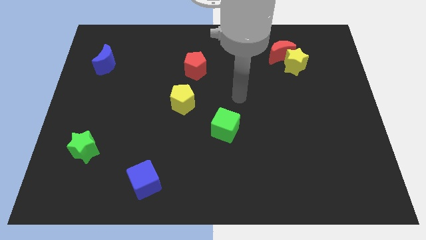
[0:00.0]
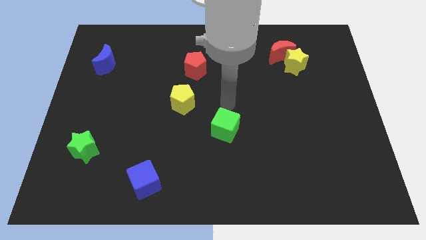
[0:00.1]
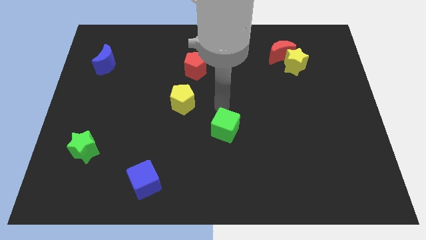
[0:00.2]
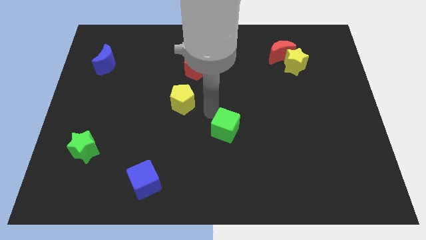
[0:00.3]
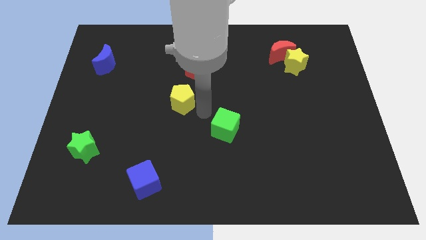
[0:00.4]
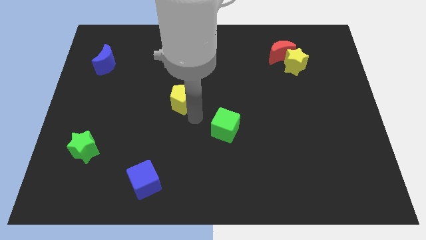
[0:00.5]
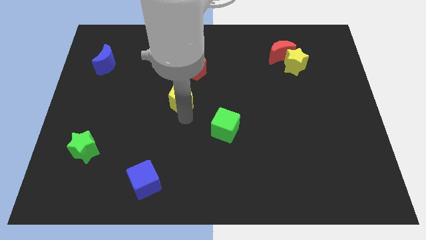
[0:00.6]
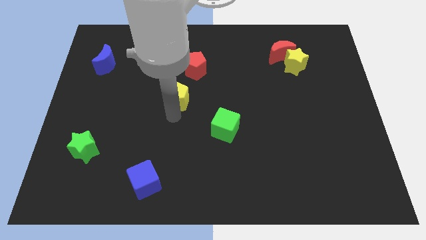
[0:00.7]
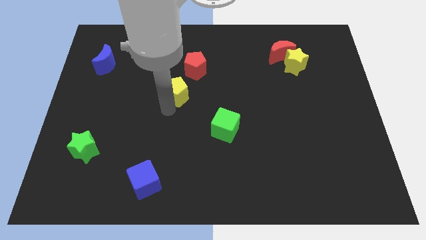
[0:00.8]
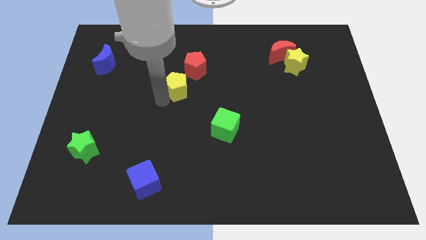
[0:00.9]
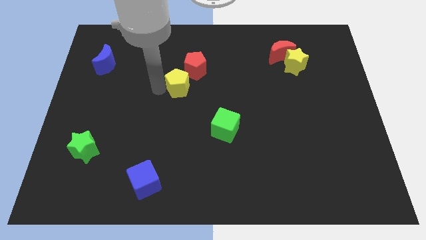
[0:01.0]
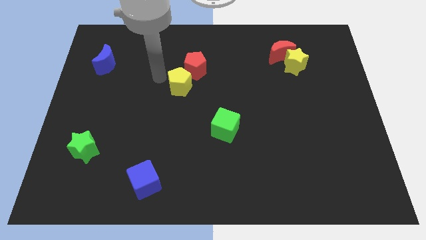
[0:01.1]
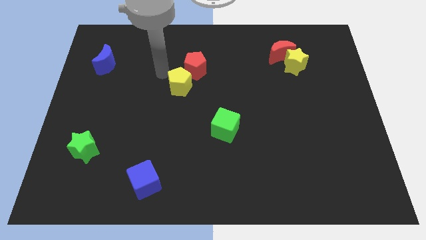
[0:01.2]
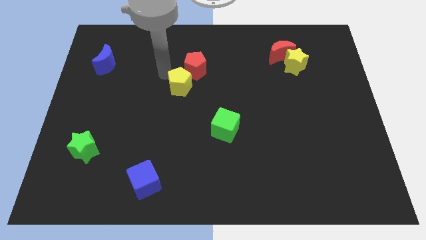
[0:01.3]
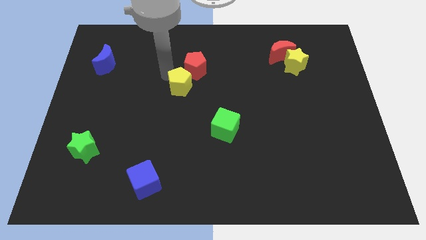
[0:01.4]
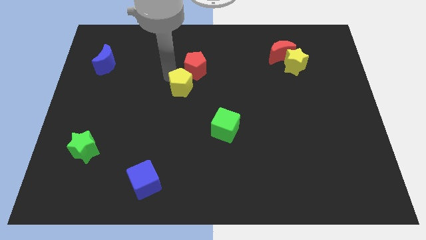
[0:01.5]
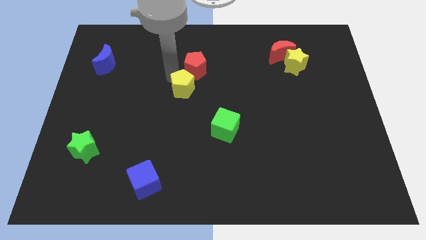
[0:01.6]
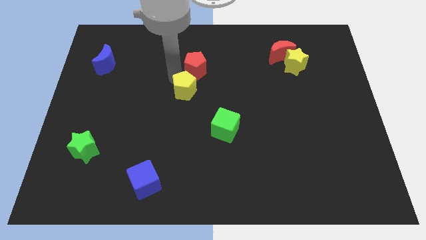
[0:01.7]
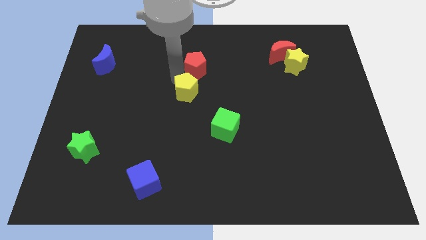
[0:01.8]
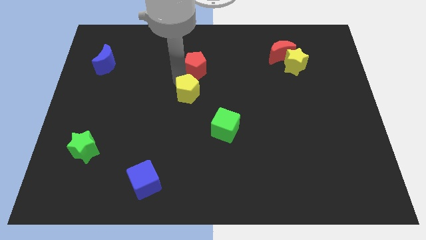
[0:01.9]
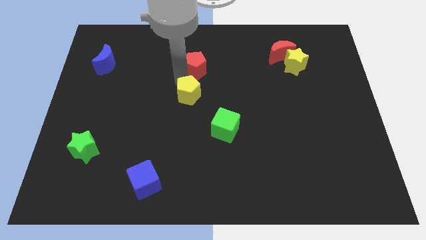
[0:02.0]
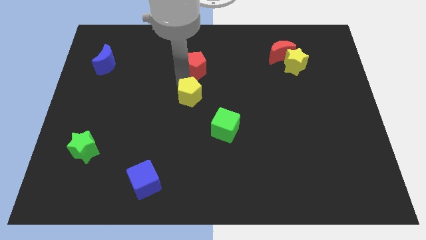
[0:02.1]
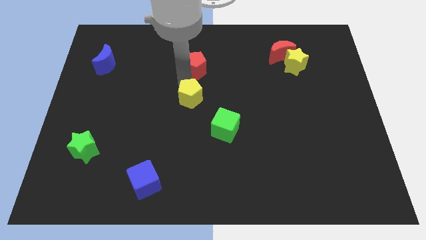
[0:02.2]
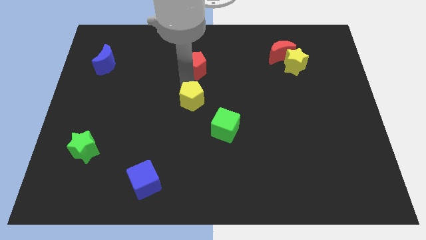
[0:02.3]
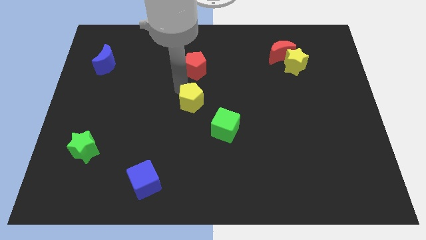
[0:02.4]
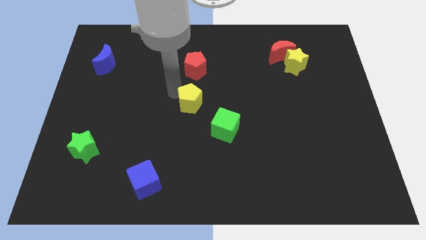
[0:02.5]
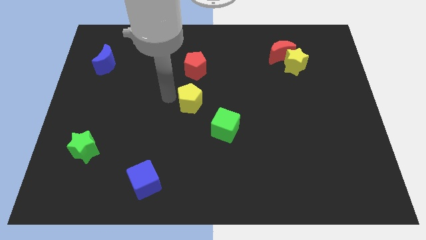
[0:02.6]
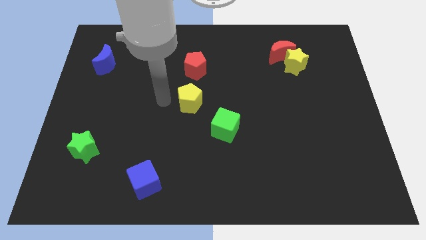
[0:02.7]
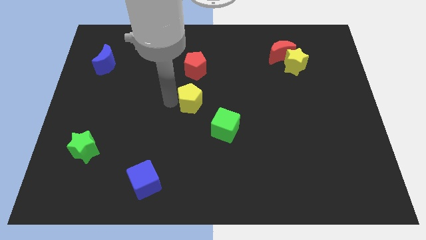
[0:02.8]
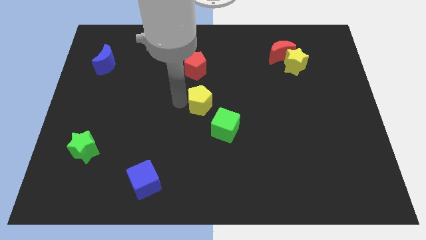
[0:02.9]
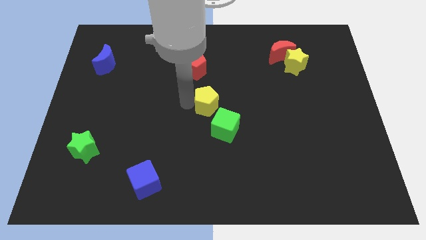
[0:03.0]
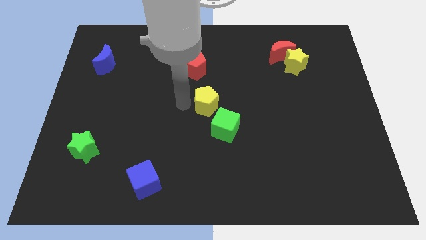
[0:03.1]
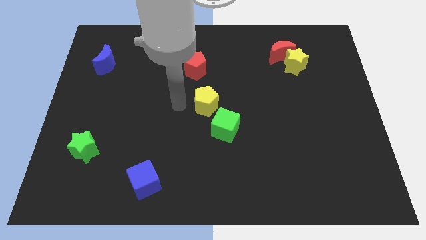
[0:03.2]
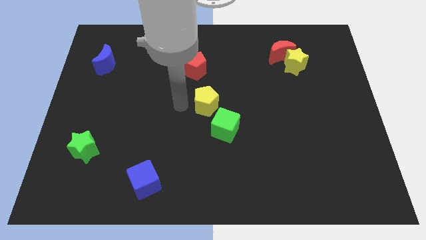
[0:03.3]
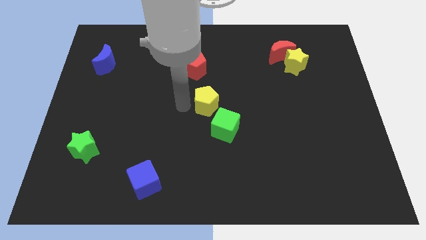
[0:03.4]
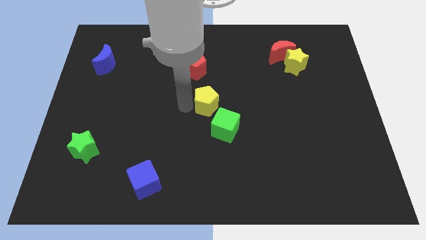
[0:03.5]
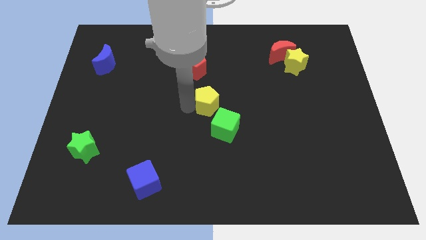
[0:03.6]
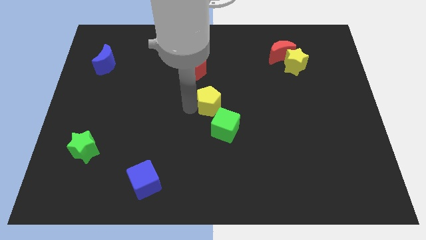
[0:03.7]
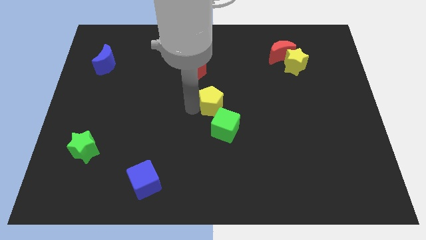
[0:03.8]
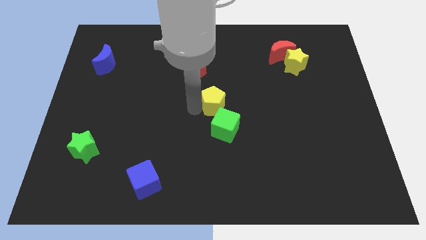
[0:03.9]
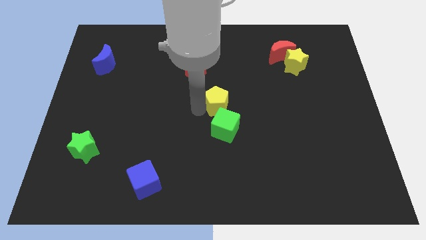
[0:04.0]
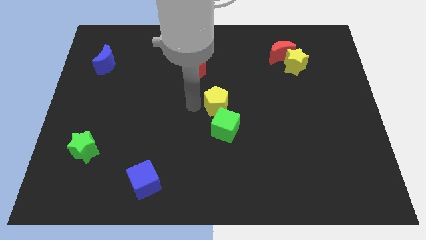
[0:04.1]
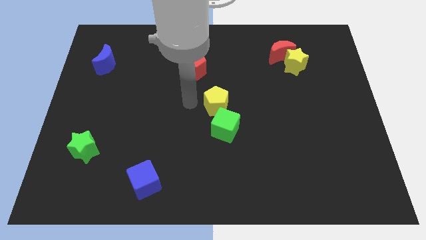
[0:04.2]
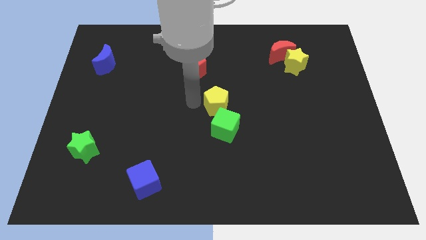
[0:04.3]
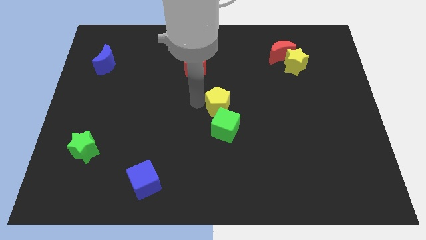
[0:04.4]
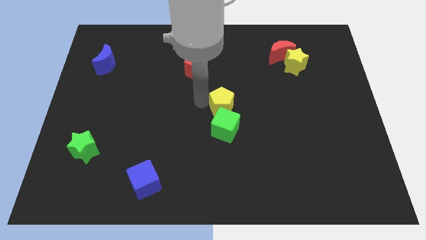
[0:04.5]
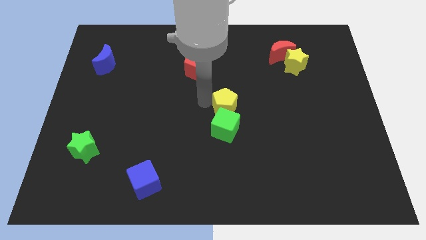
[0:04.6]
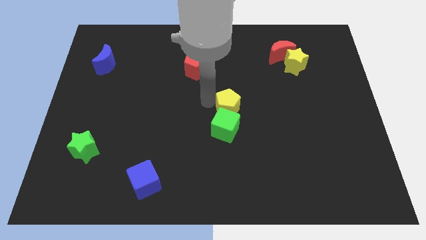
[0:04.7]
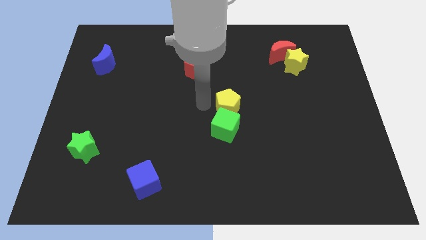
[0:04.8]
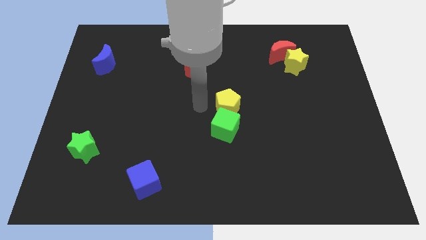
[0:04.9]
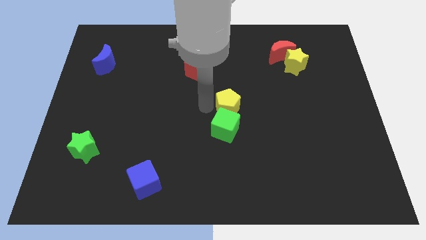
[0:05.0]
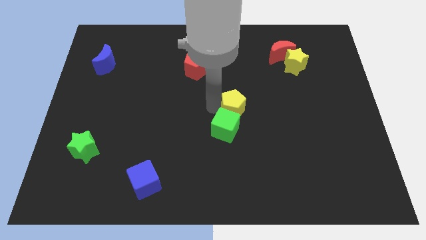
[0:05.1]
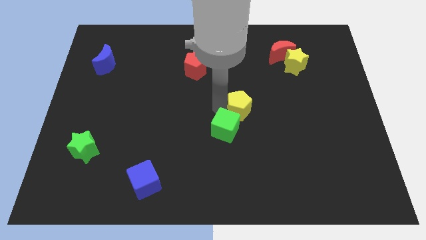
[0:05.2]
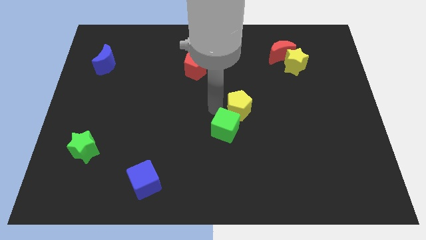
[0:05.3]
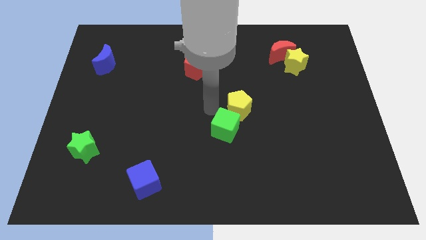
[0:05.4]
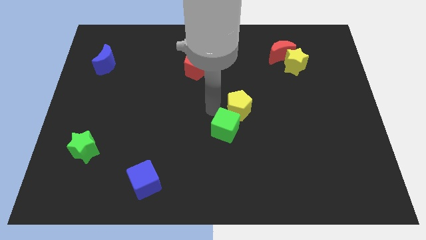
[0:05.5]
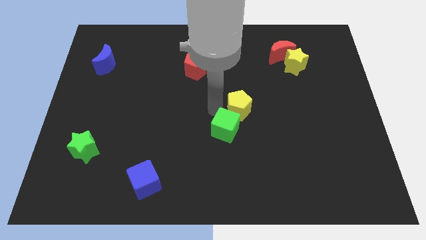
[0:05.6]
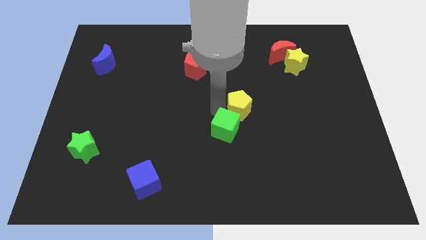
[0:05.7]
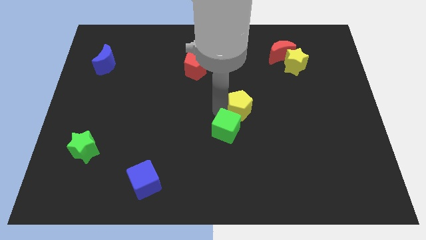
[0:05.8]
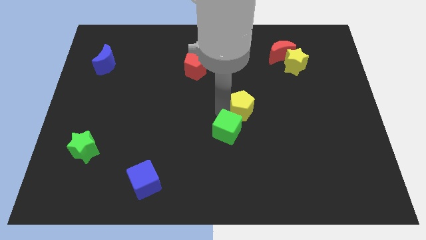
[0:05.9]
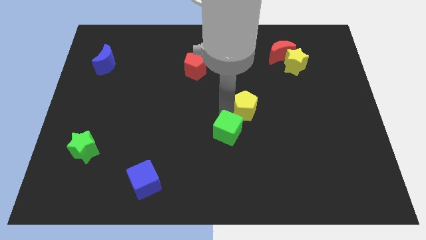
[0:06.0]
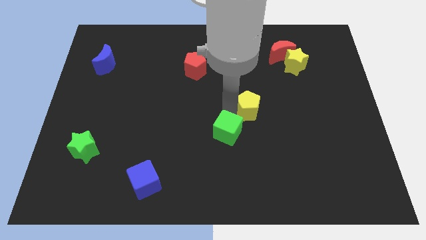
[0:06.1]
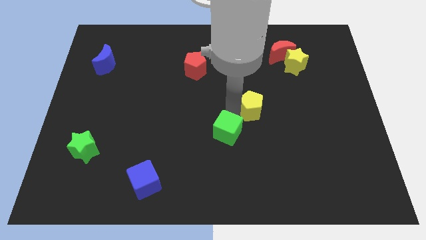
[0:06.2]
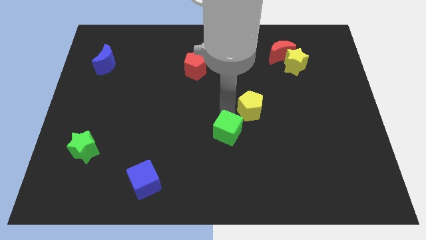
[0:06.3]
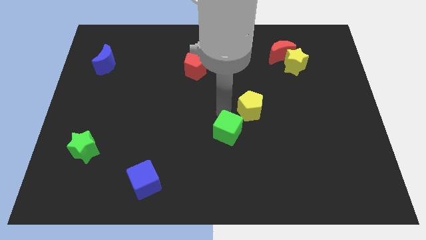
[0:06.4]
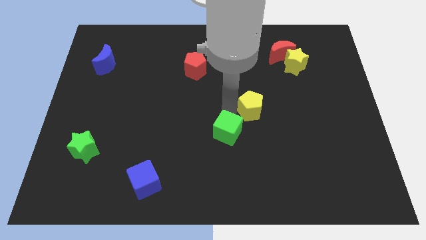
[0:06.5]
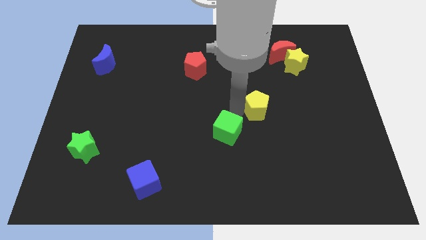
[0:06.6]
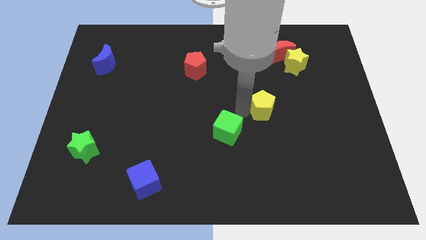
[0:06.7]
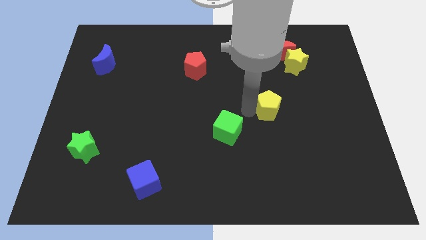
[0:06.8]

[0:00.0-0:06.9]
push the yellow pentagon right

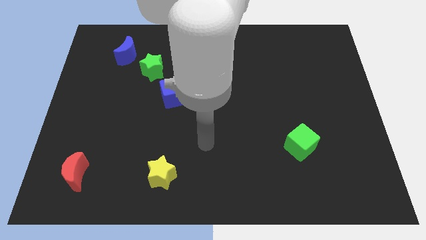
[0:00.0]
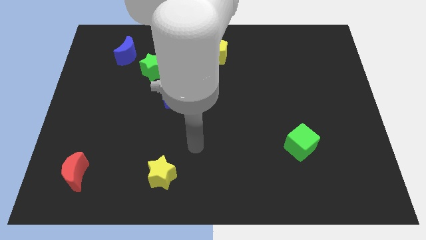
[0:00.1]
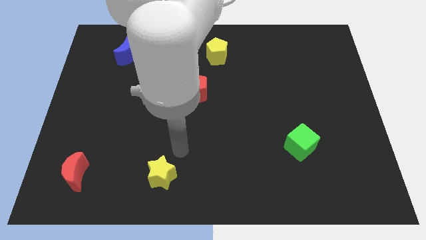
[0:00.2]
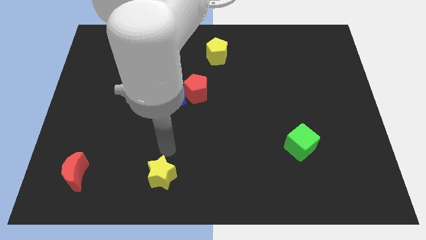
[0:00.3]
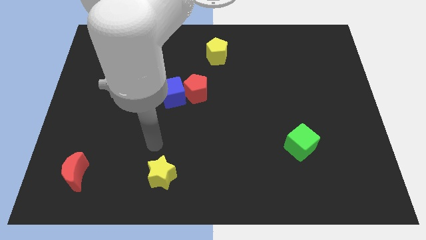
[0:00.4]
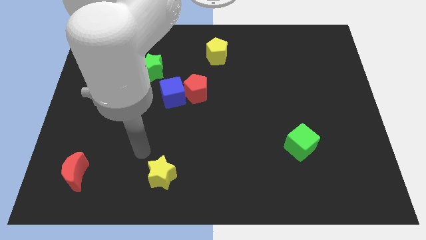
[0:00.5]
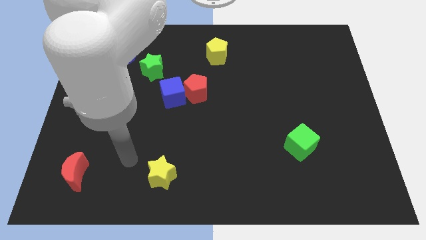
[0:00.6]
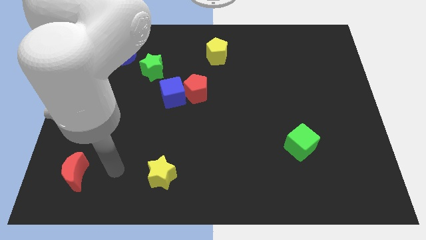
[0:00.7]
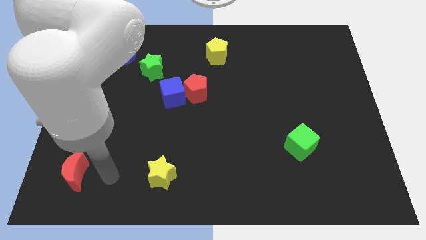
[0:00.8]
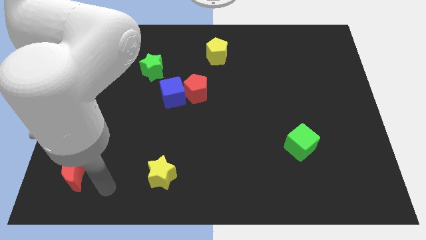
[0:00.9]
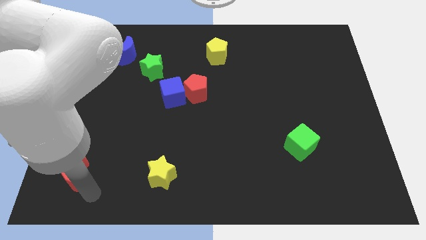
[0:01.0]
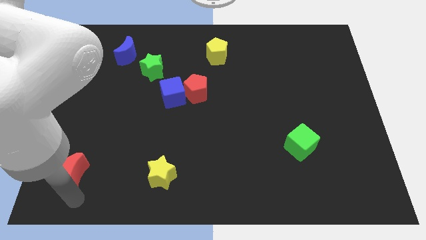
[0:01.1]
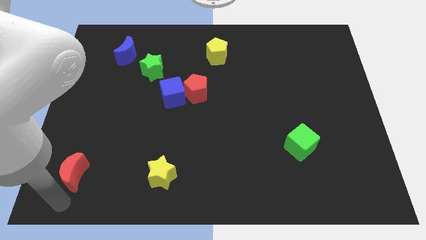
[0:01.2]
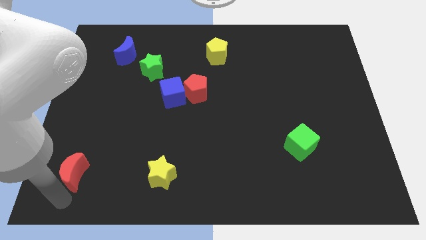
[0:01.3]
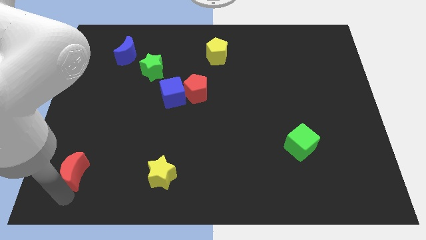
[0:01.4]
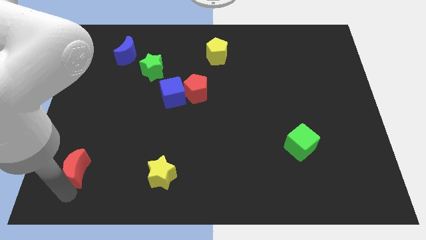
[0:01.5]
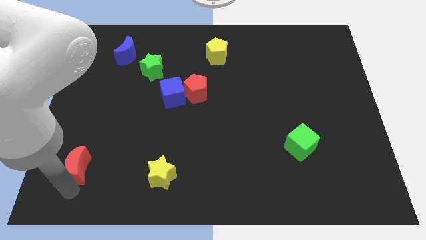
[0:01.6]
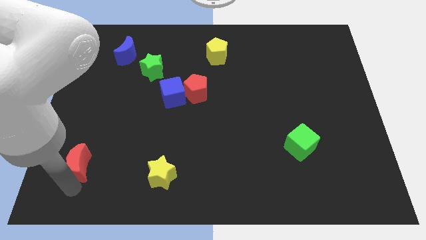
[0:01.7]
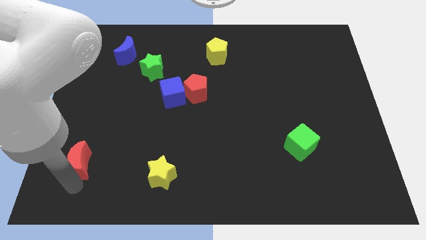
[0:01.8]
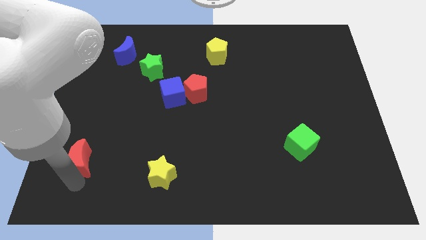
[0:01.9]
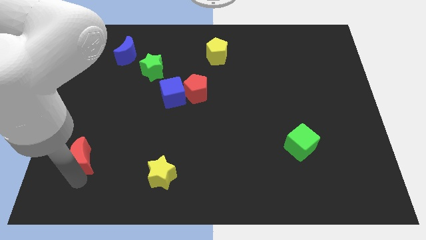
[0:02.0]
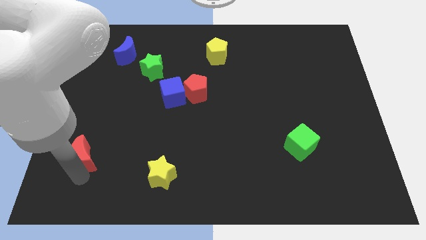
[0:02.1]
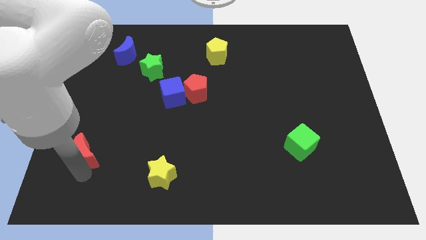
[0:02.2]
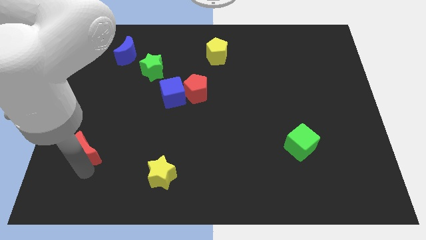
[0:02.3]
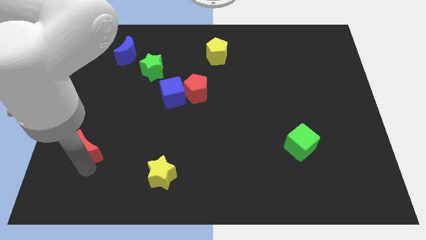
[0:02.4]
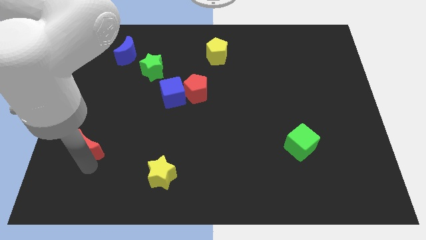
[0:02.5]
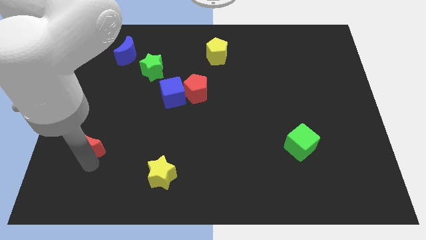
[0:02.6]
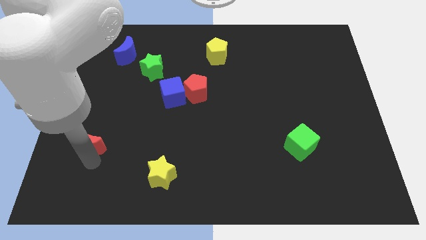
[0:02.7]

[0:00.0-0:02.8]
slide the red moon slightly up
